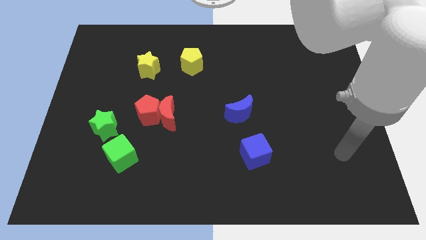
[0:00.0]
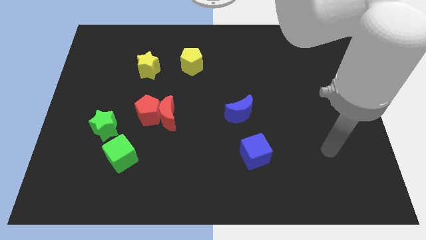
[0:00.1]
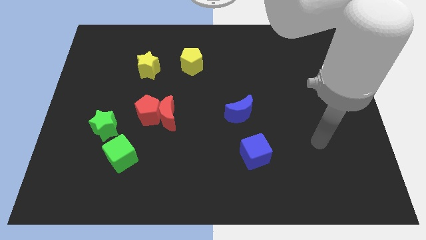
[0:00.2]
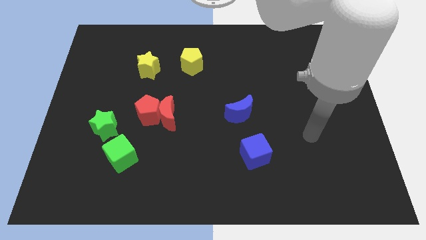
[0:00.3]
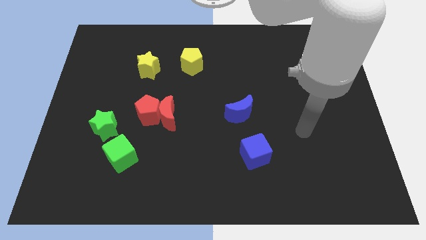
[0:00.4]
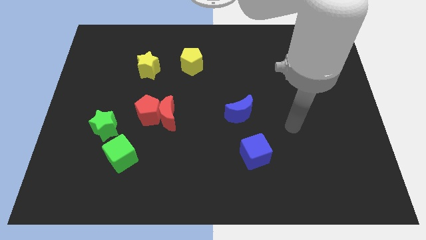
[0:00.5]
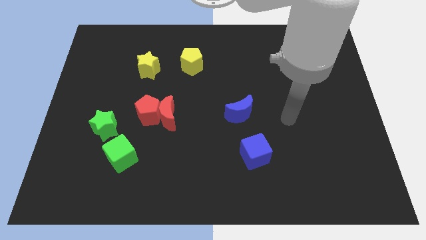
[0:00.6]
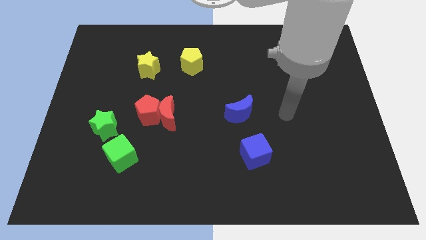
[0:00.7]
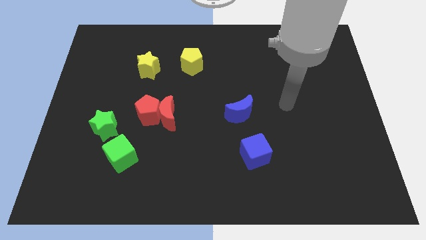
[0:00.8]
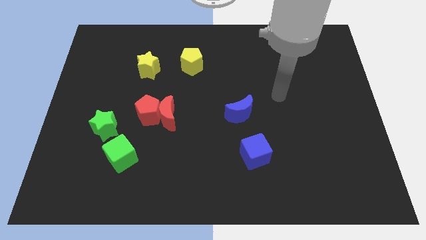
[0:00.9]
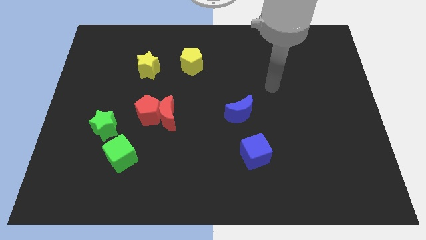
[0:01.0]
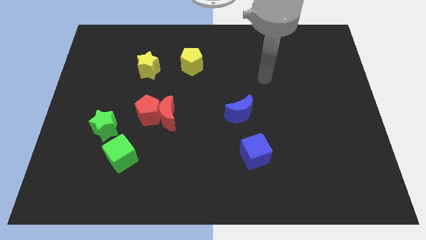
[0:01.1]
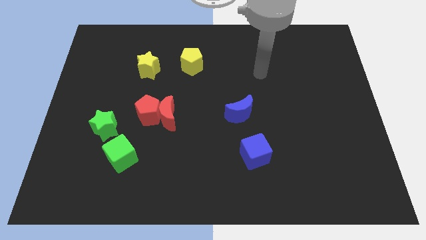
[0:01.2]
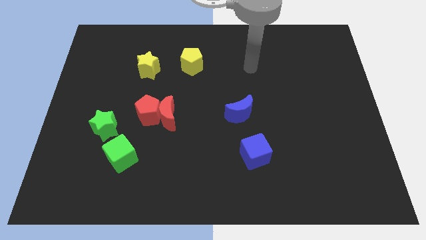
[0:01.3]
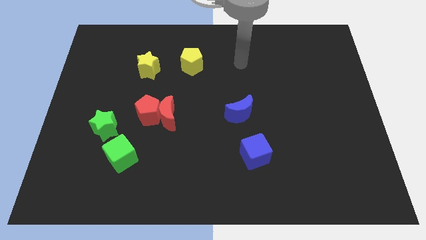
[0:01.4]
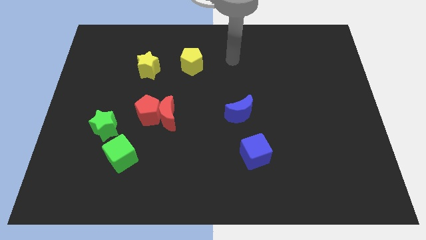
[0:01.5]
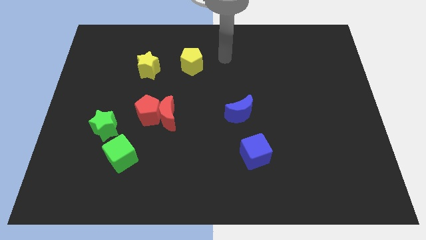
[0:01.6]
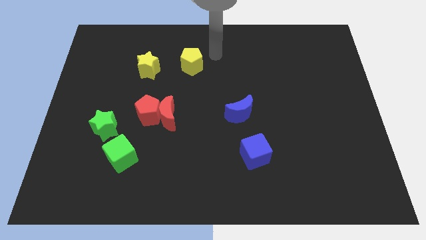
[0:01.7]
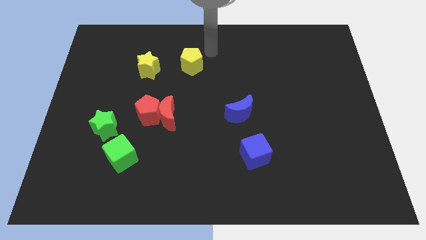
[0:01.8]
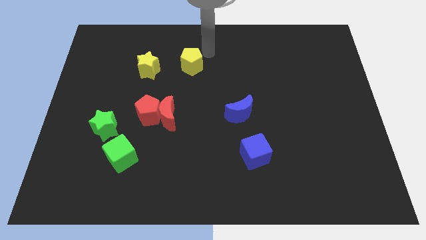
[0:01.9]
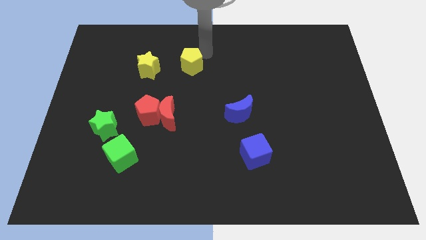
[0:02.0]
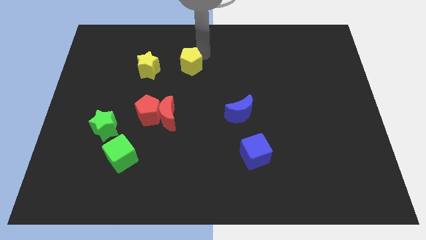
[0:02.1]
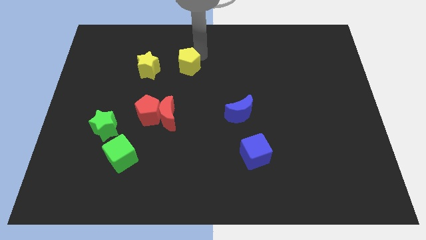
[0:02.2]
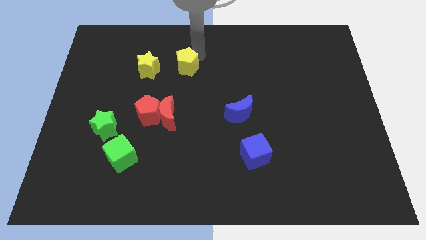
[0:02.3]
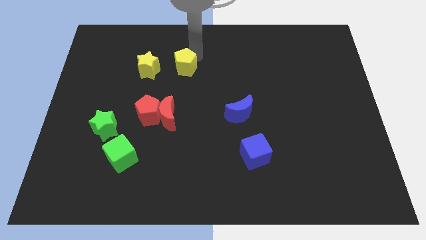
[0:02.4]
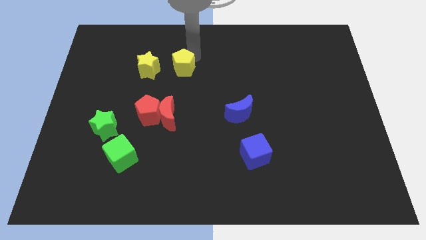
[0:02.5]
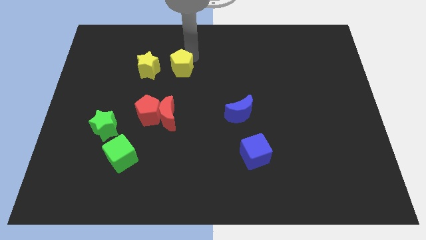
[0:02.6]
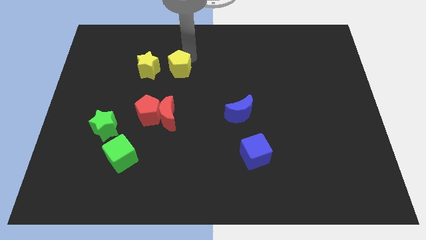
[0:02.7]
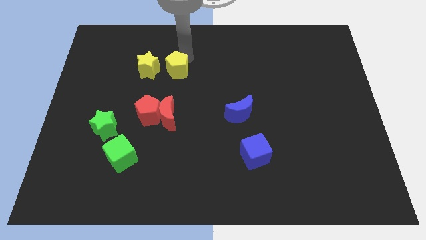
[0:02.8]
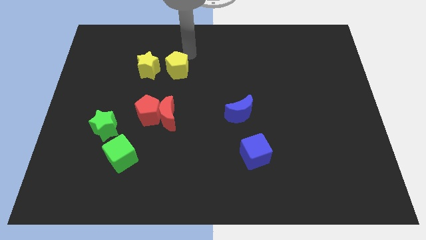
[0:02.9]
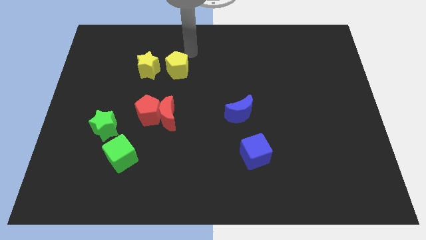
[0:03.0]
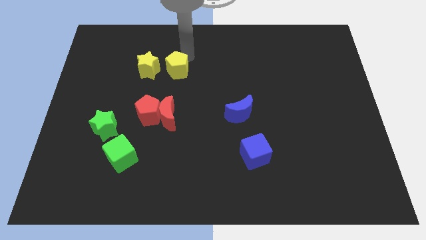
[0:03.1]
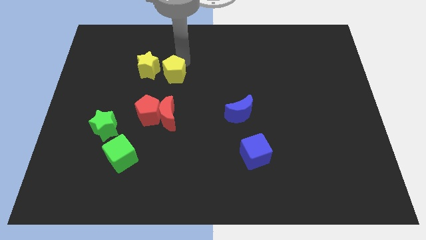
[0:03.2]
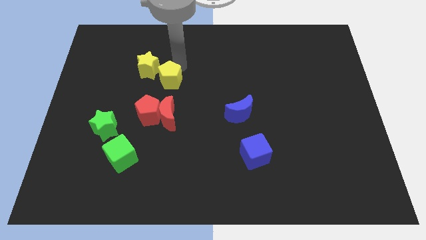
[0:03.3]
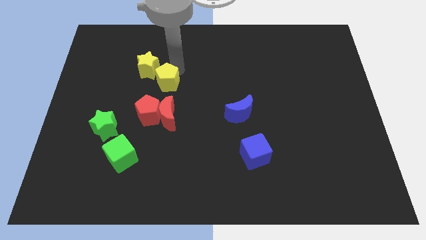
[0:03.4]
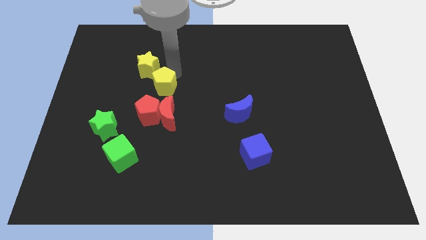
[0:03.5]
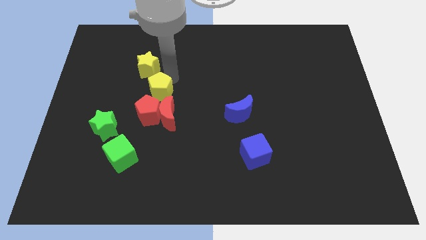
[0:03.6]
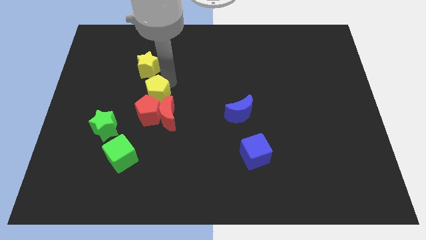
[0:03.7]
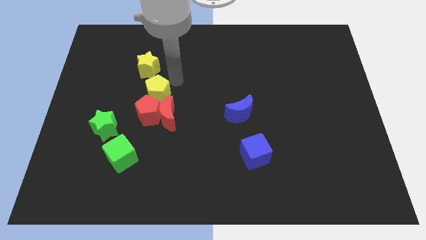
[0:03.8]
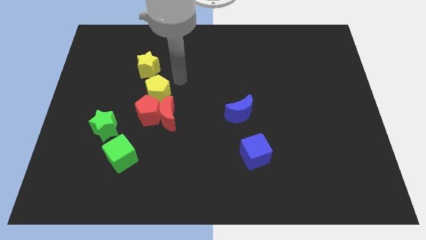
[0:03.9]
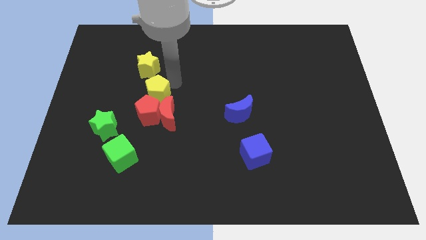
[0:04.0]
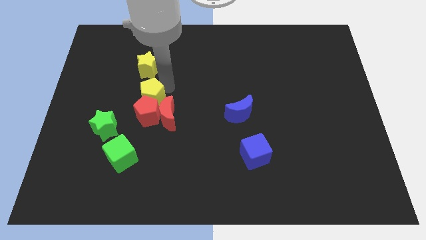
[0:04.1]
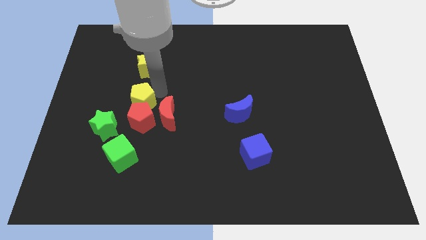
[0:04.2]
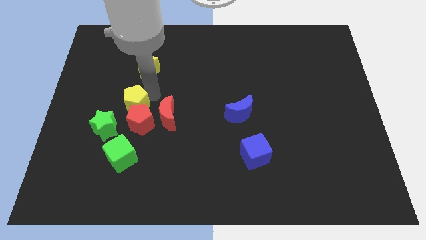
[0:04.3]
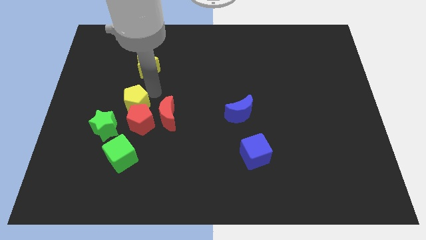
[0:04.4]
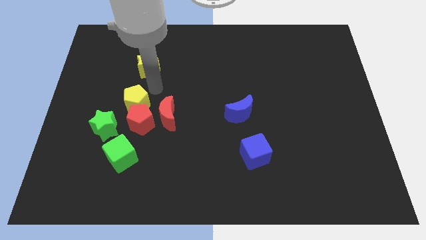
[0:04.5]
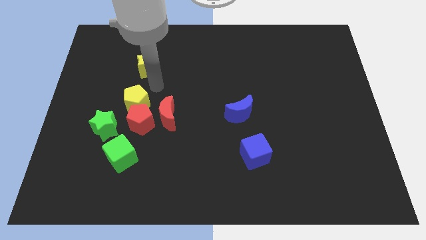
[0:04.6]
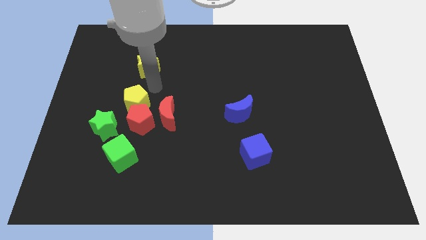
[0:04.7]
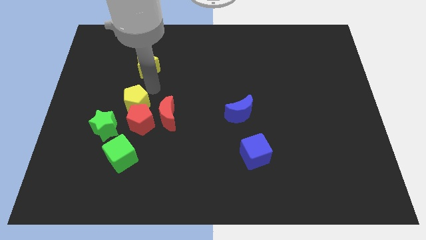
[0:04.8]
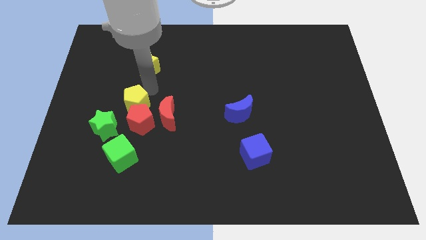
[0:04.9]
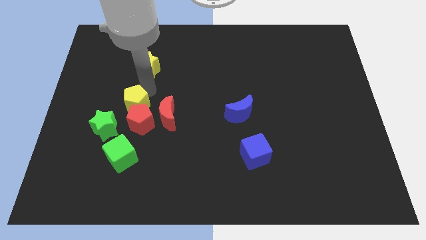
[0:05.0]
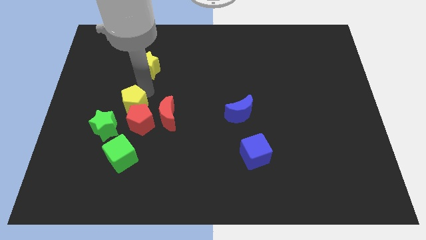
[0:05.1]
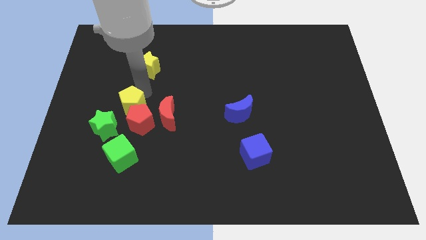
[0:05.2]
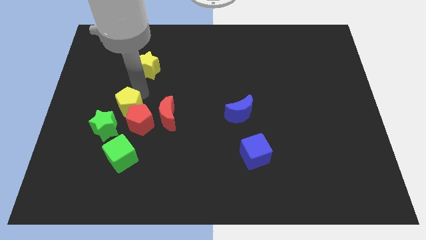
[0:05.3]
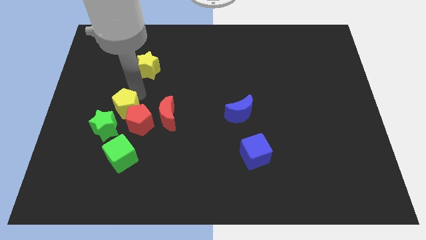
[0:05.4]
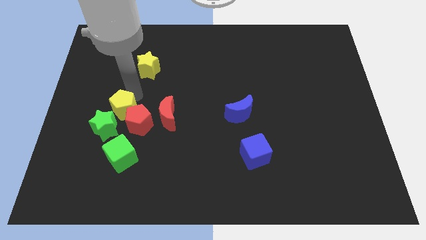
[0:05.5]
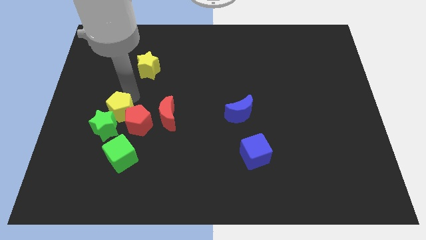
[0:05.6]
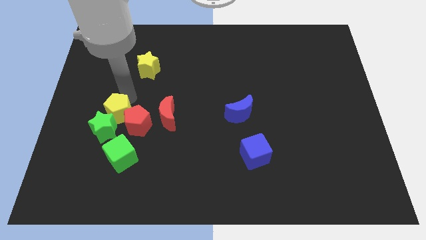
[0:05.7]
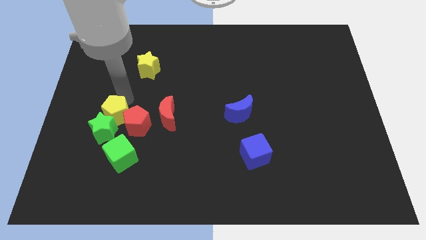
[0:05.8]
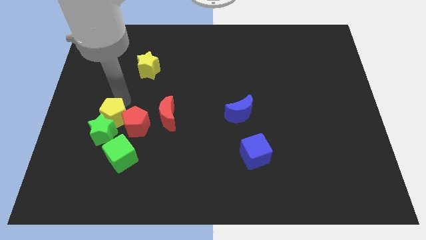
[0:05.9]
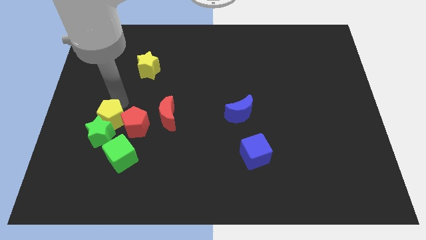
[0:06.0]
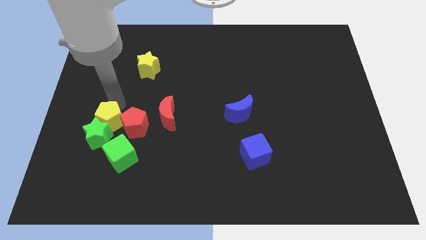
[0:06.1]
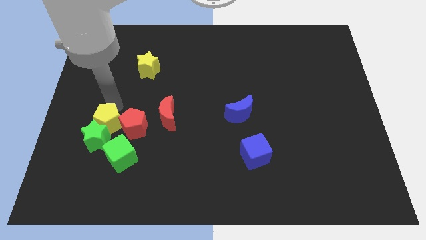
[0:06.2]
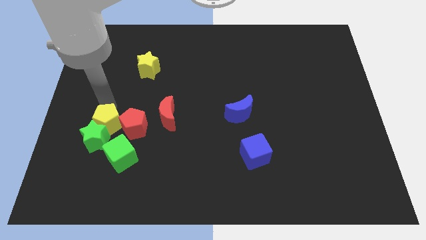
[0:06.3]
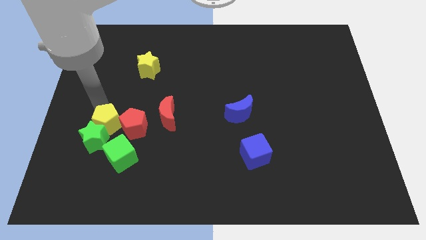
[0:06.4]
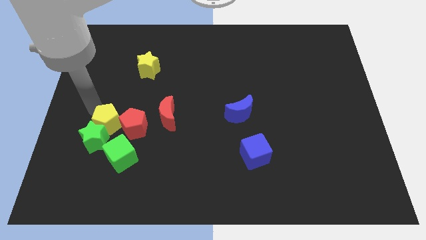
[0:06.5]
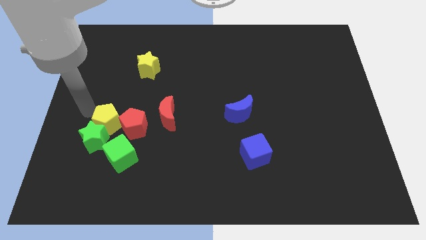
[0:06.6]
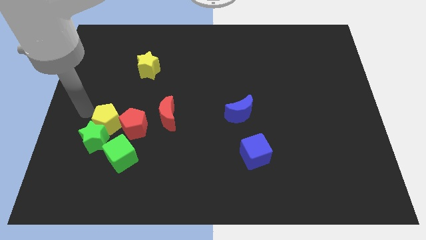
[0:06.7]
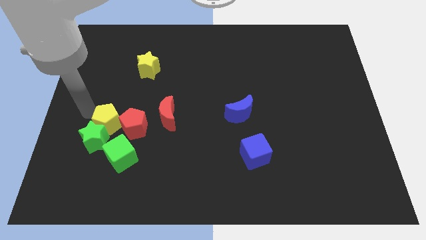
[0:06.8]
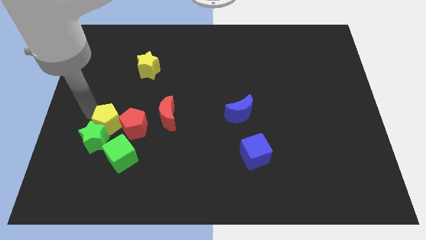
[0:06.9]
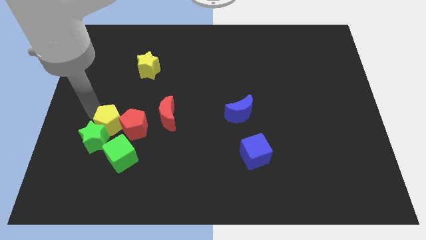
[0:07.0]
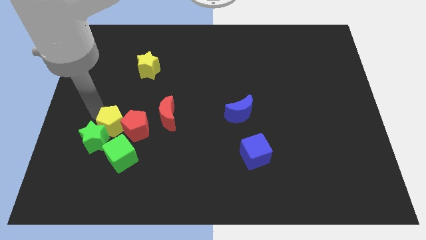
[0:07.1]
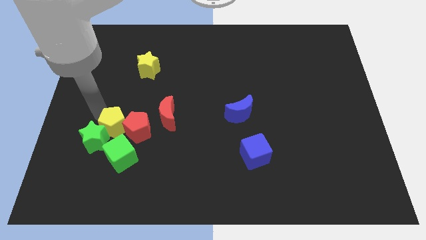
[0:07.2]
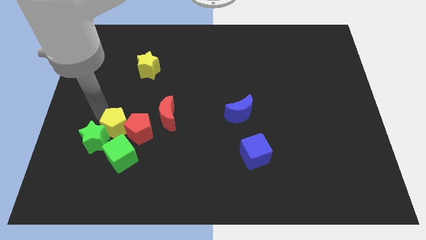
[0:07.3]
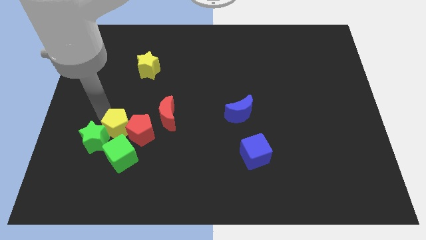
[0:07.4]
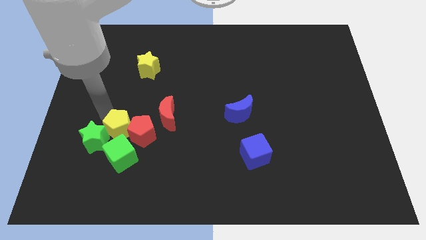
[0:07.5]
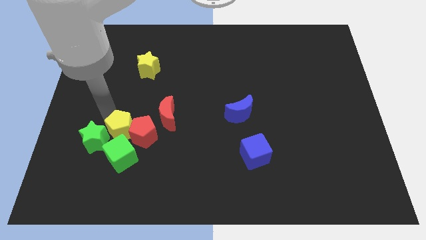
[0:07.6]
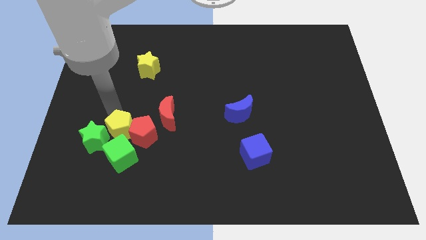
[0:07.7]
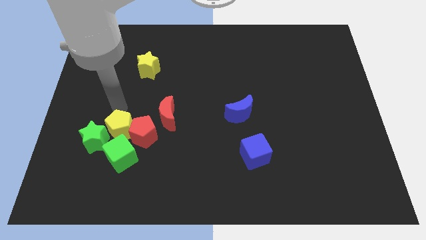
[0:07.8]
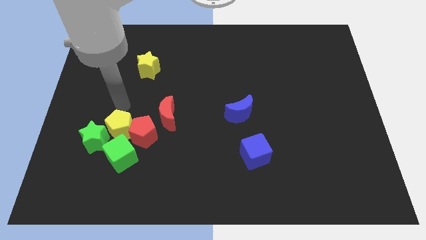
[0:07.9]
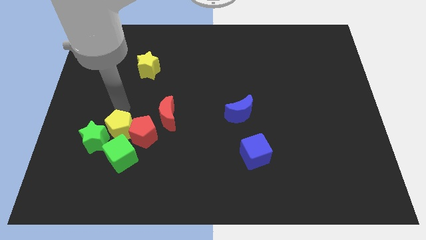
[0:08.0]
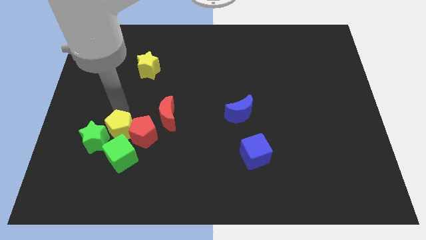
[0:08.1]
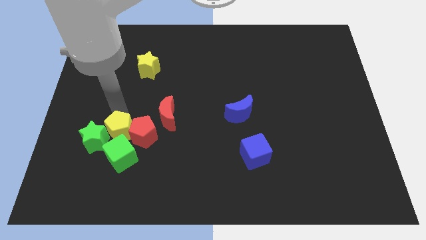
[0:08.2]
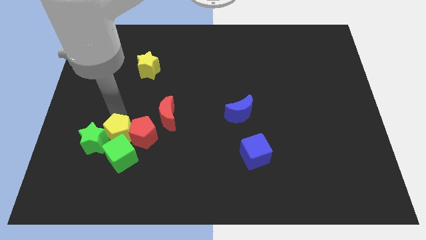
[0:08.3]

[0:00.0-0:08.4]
slide the yellow pentagon next to the green cube
